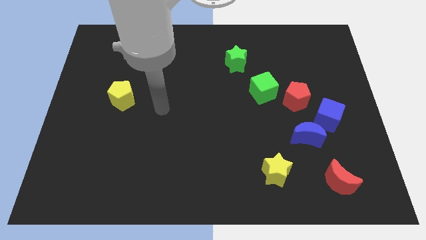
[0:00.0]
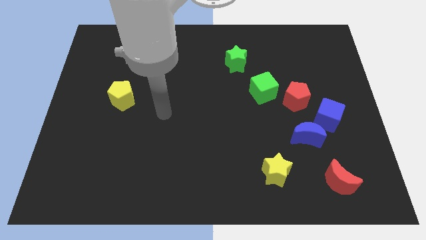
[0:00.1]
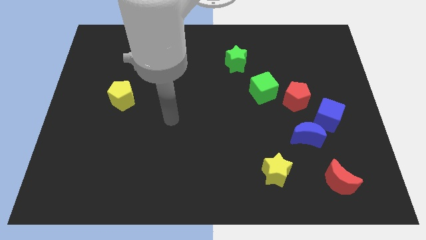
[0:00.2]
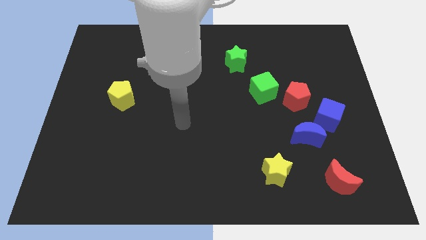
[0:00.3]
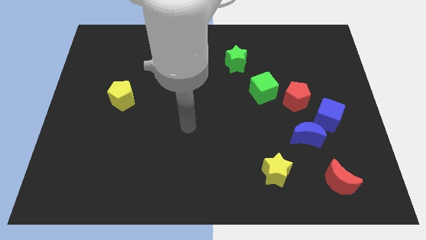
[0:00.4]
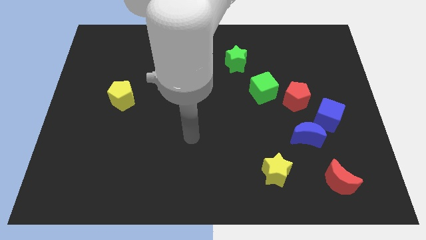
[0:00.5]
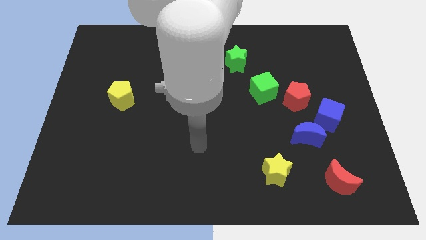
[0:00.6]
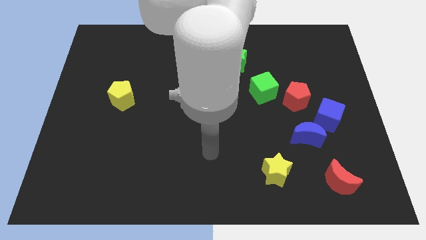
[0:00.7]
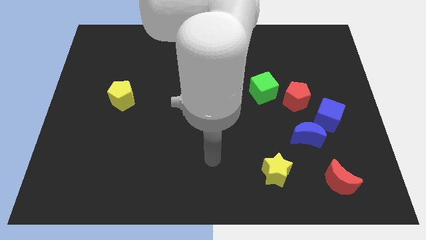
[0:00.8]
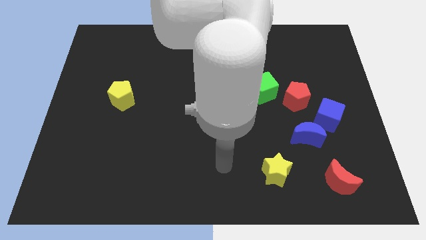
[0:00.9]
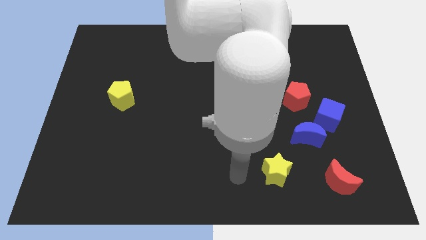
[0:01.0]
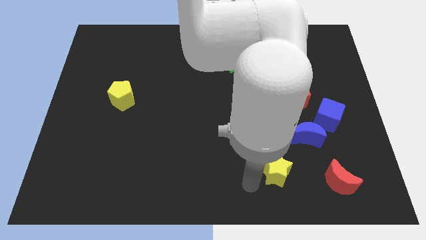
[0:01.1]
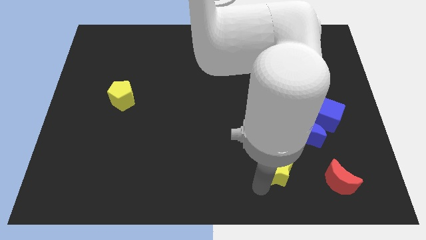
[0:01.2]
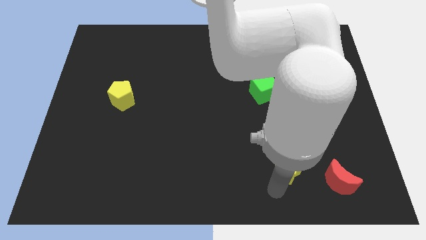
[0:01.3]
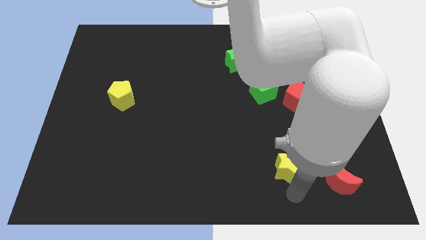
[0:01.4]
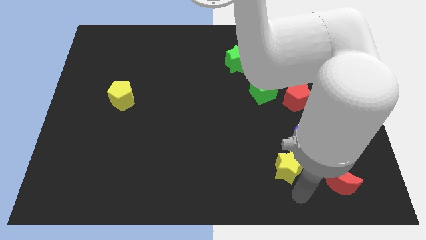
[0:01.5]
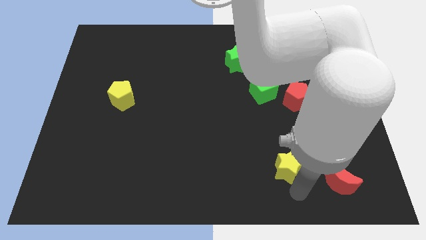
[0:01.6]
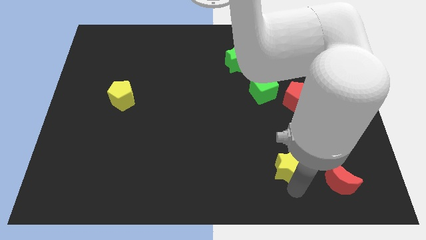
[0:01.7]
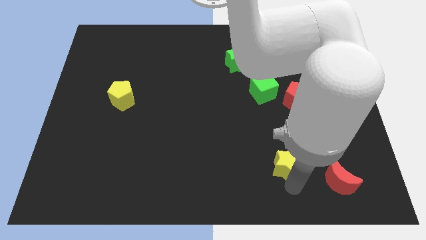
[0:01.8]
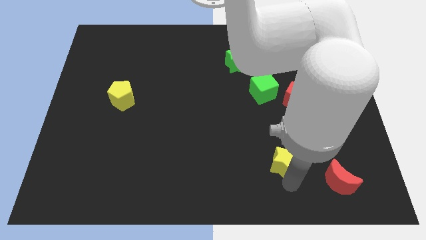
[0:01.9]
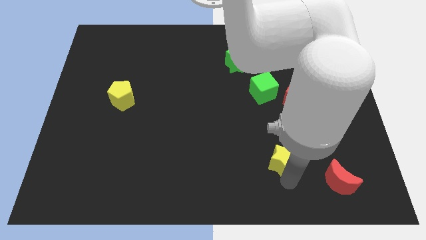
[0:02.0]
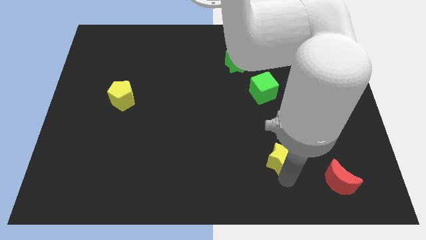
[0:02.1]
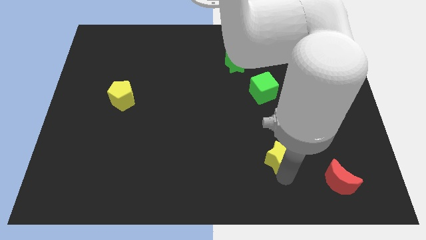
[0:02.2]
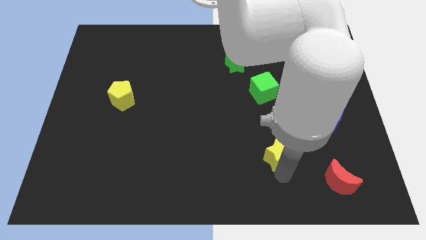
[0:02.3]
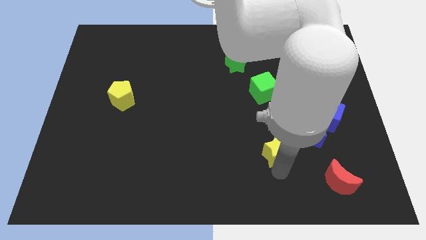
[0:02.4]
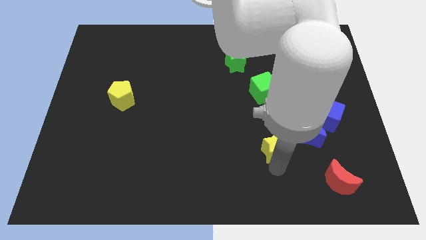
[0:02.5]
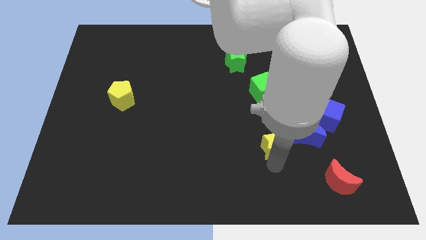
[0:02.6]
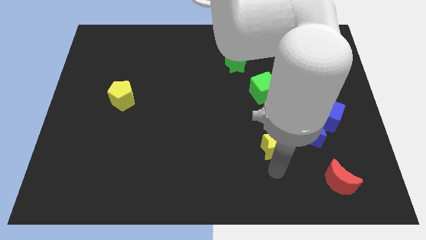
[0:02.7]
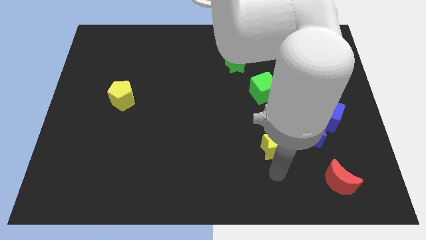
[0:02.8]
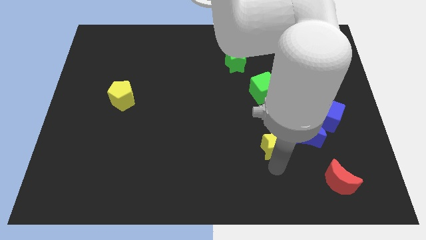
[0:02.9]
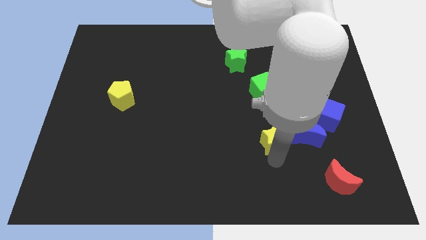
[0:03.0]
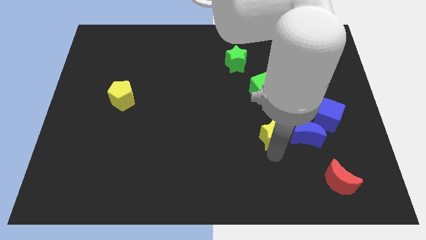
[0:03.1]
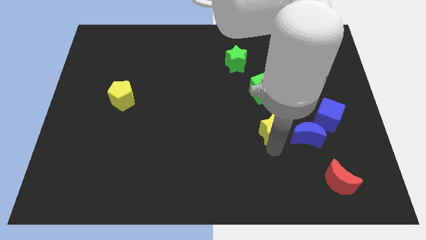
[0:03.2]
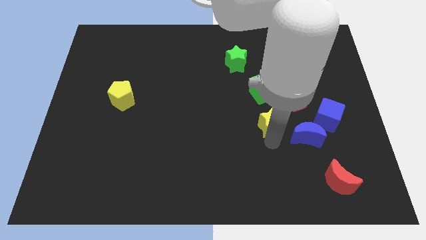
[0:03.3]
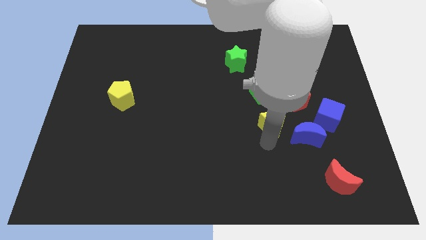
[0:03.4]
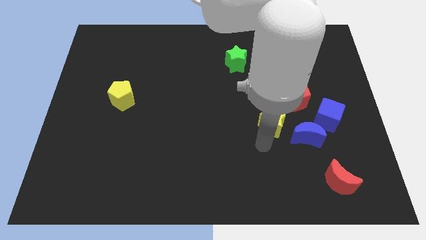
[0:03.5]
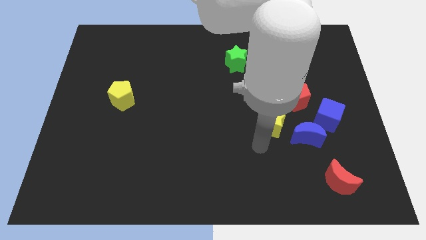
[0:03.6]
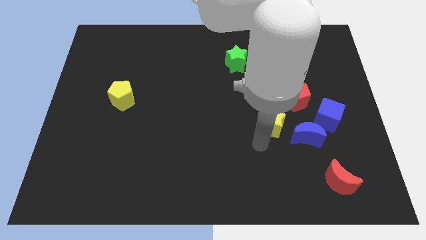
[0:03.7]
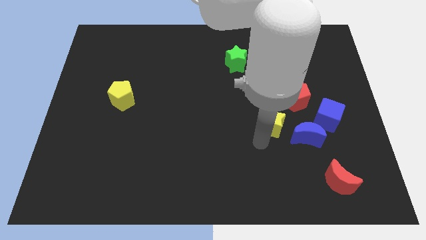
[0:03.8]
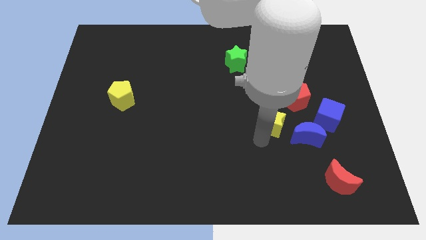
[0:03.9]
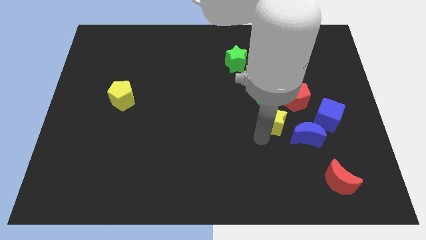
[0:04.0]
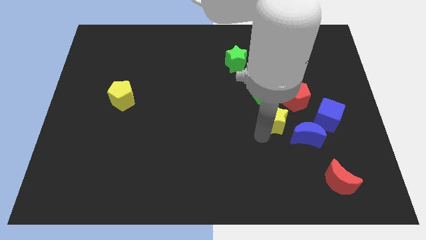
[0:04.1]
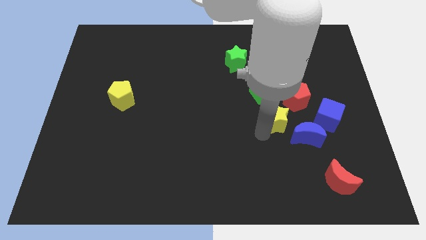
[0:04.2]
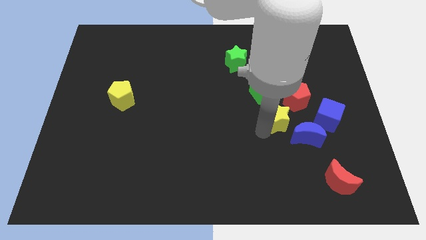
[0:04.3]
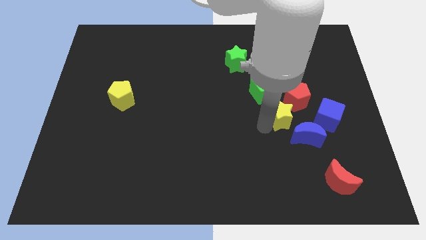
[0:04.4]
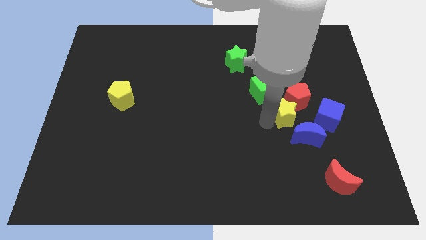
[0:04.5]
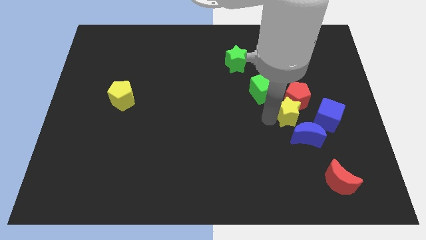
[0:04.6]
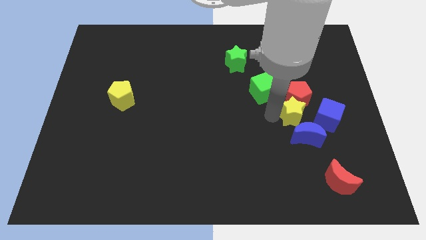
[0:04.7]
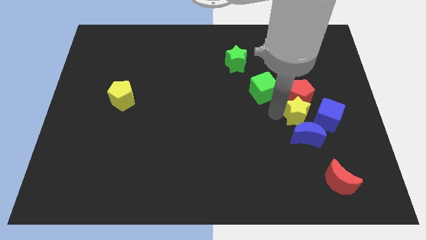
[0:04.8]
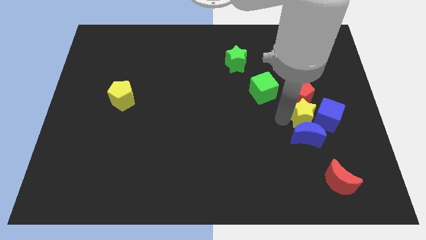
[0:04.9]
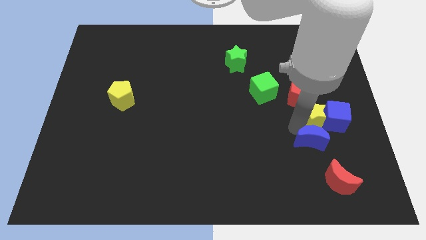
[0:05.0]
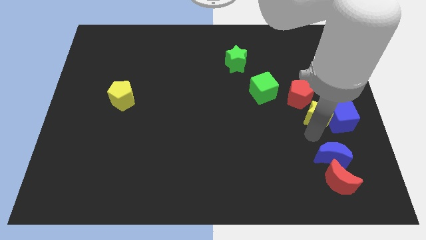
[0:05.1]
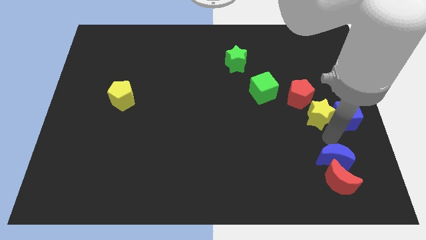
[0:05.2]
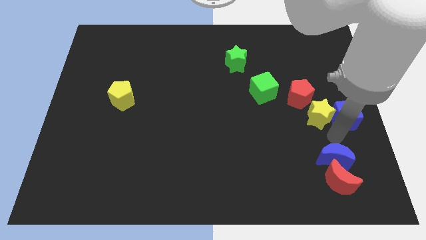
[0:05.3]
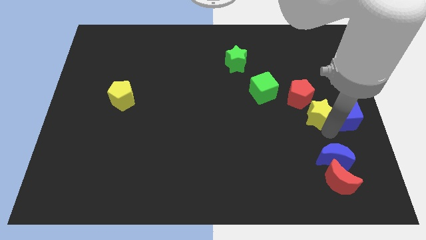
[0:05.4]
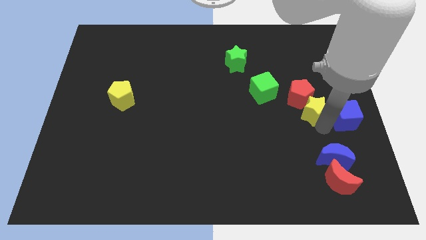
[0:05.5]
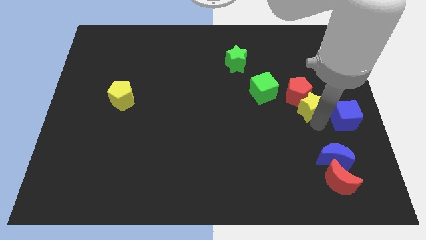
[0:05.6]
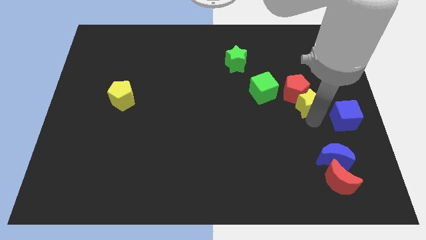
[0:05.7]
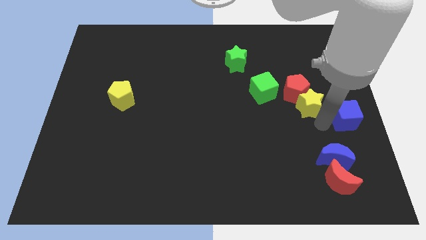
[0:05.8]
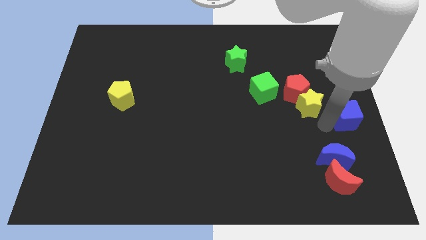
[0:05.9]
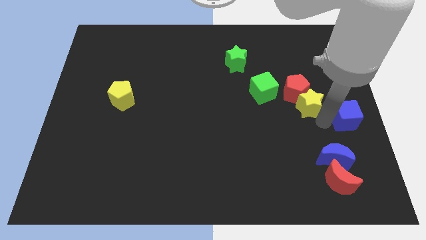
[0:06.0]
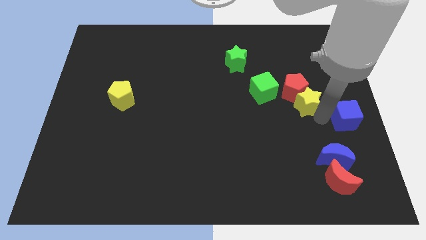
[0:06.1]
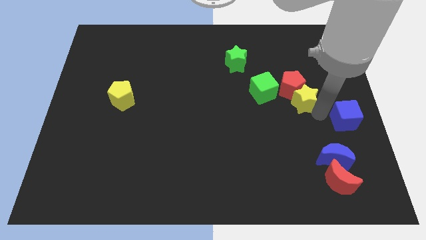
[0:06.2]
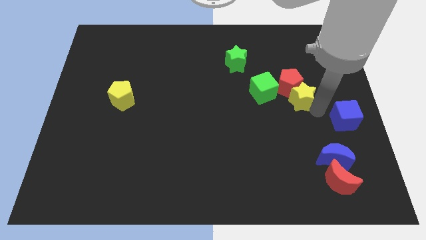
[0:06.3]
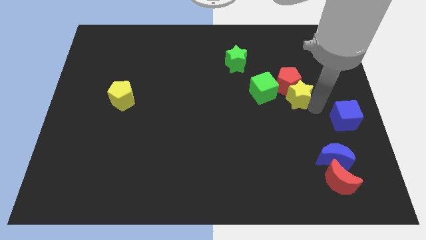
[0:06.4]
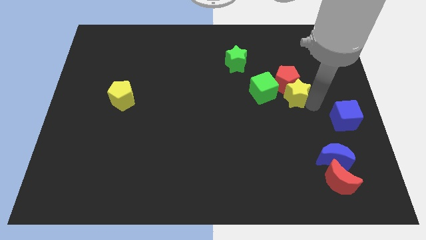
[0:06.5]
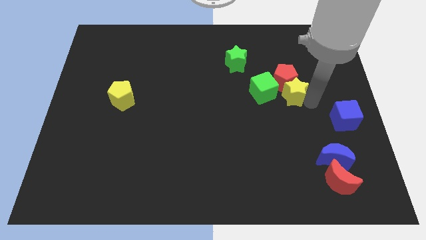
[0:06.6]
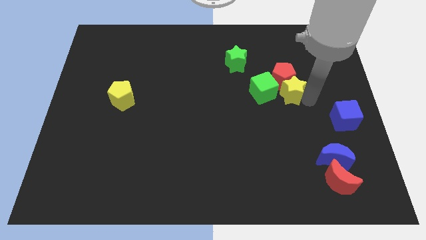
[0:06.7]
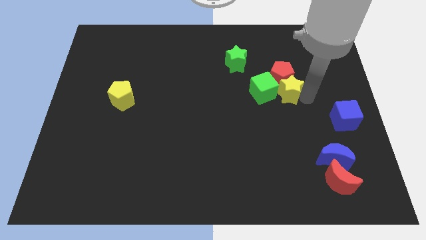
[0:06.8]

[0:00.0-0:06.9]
slide the yellow star to the top right side of the green cube

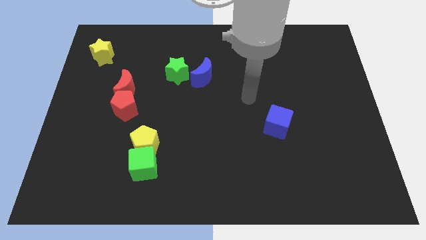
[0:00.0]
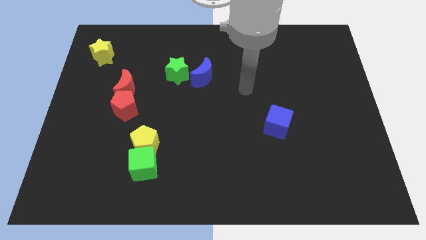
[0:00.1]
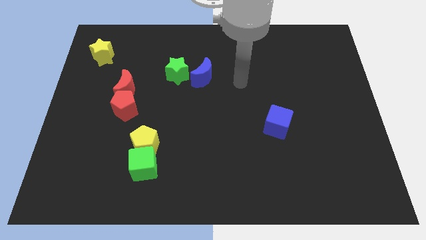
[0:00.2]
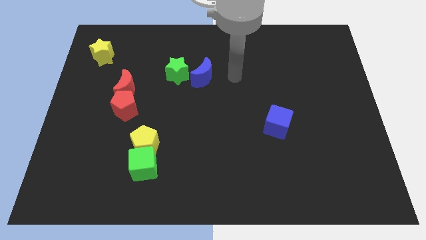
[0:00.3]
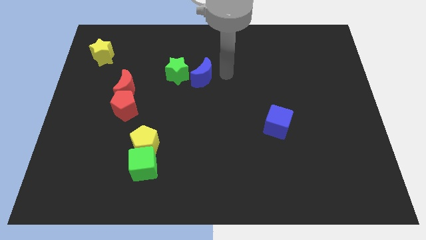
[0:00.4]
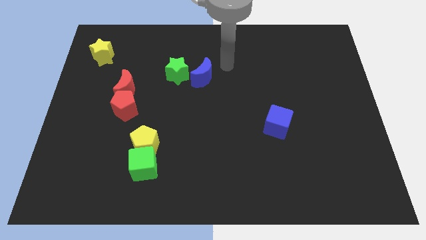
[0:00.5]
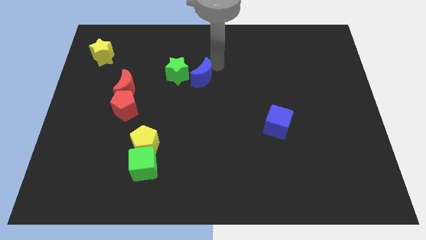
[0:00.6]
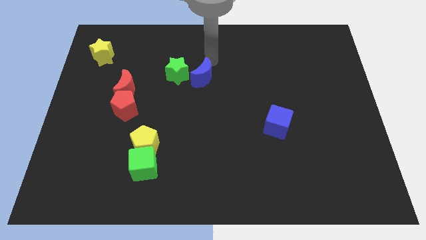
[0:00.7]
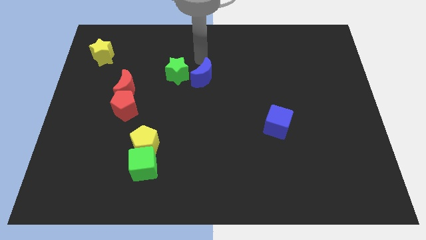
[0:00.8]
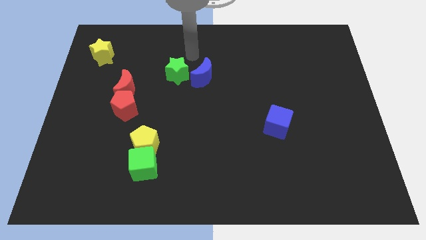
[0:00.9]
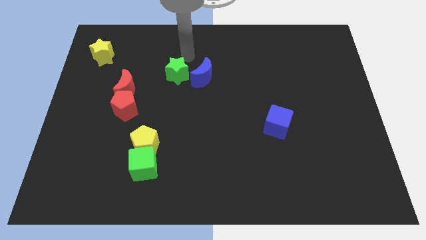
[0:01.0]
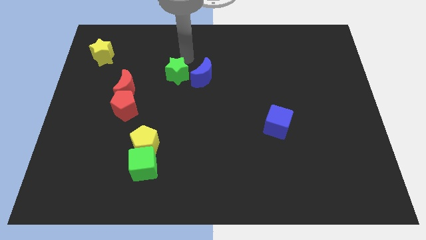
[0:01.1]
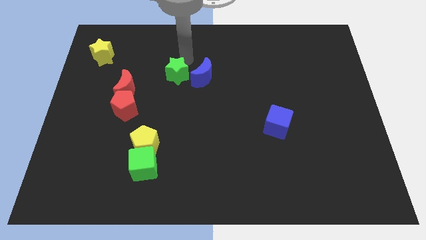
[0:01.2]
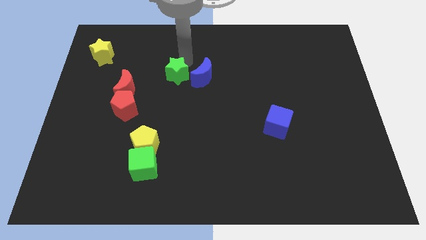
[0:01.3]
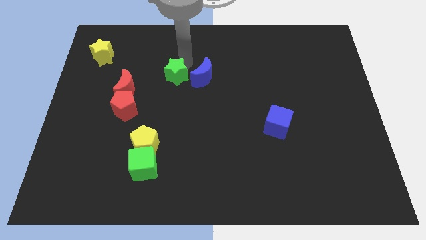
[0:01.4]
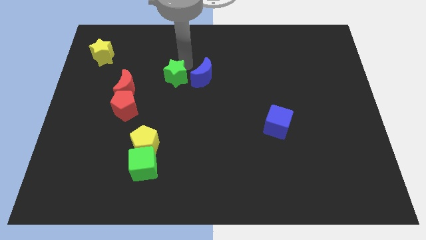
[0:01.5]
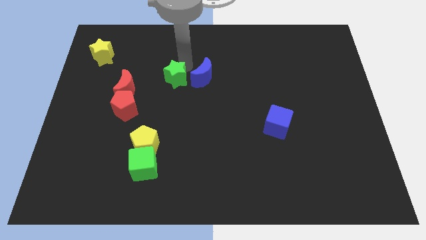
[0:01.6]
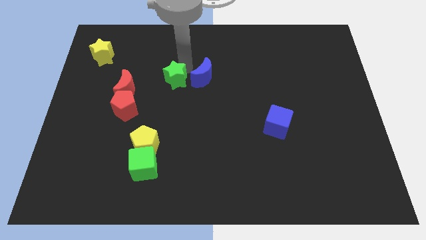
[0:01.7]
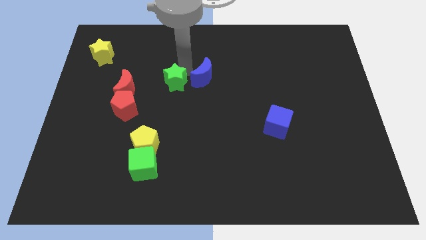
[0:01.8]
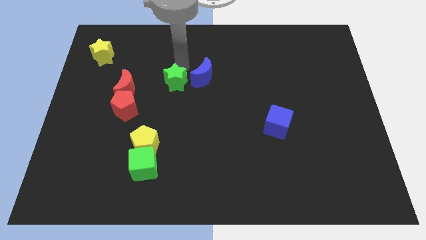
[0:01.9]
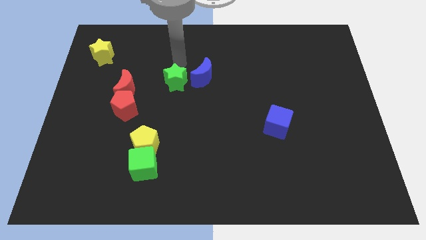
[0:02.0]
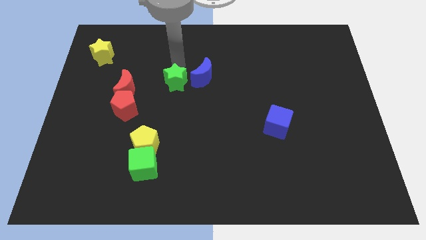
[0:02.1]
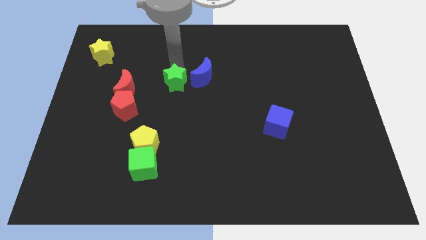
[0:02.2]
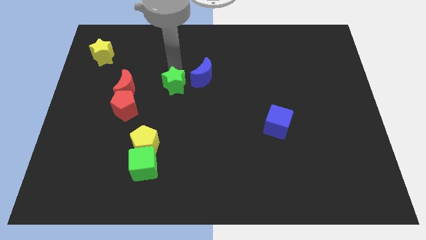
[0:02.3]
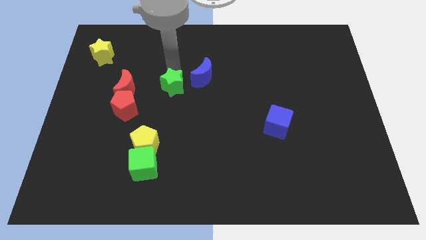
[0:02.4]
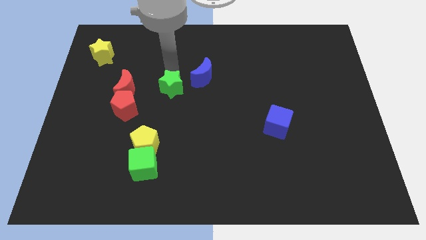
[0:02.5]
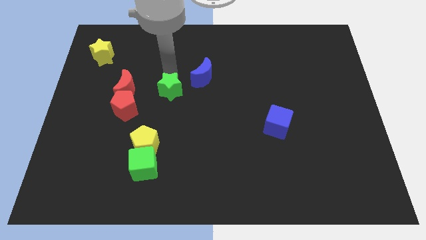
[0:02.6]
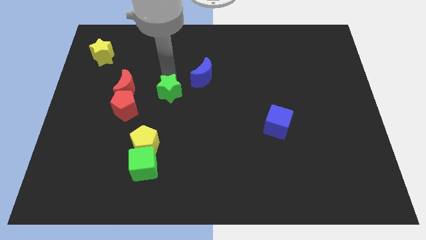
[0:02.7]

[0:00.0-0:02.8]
move the green star to the right side of the red pentagon
